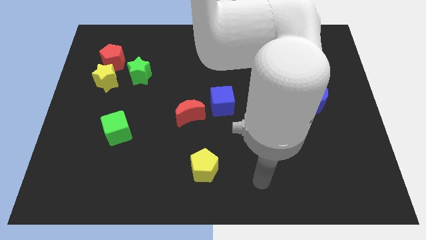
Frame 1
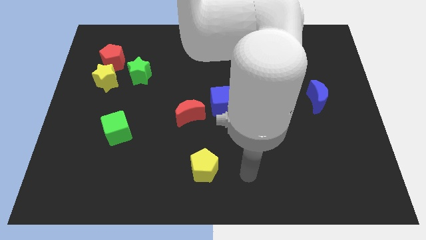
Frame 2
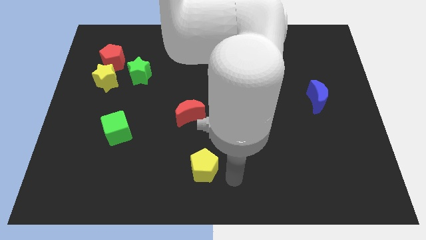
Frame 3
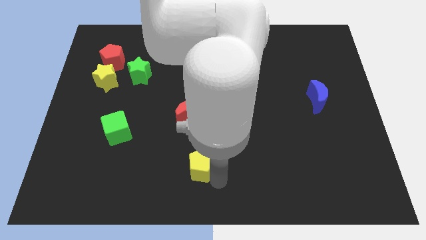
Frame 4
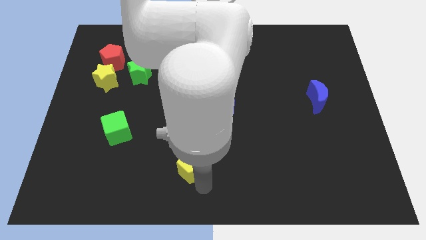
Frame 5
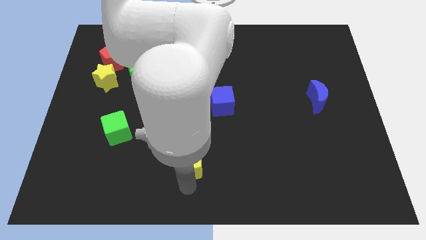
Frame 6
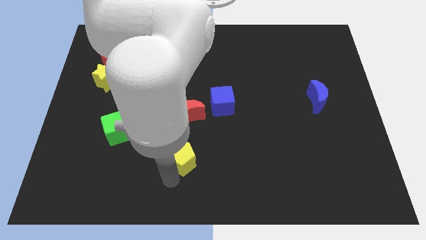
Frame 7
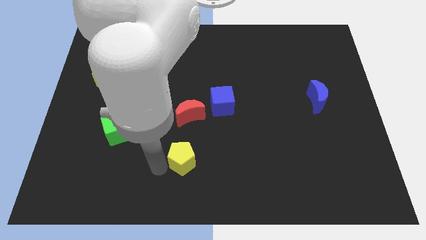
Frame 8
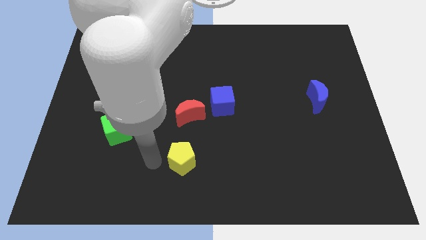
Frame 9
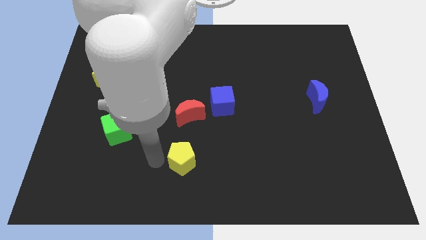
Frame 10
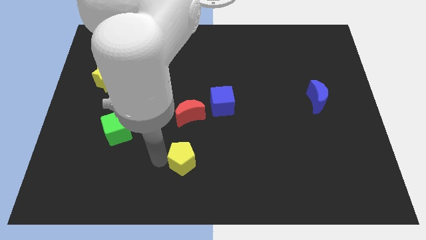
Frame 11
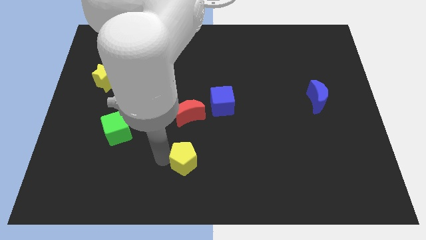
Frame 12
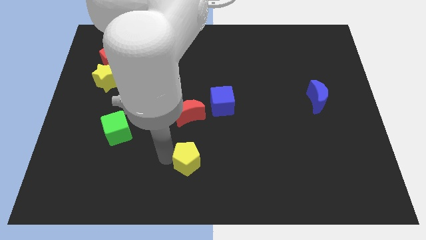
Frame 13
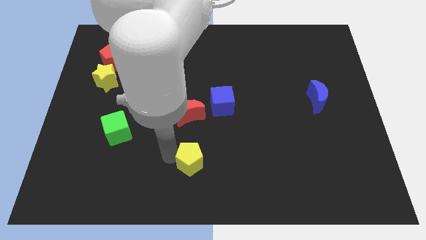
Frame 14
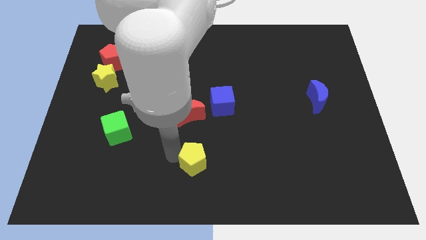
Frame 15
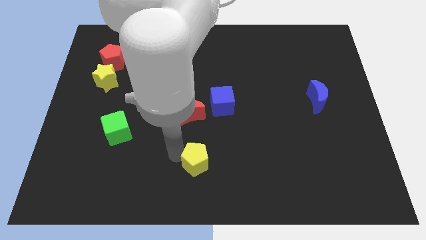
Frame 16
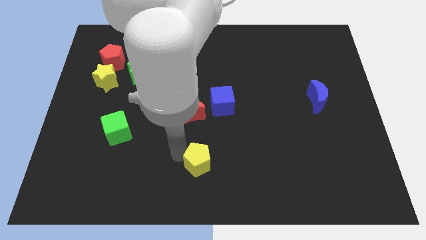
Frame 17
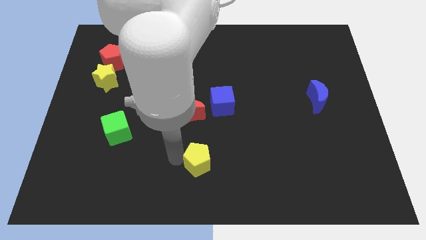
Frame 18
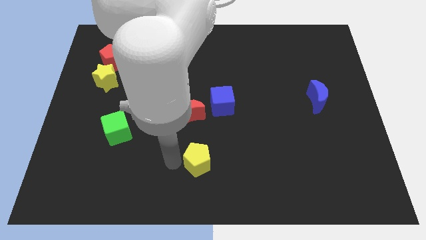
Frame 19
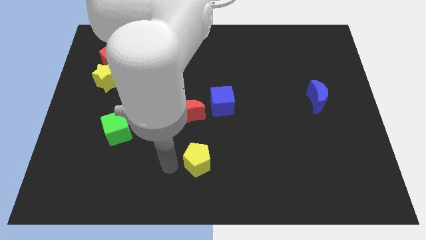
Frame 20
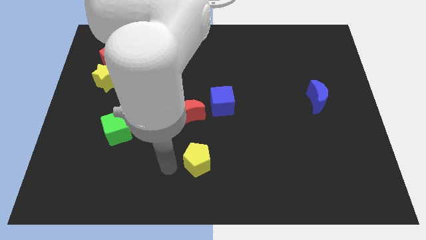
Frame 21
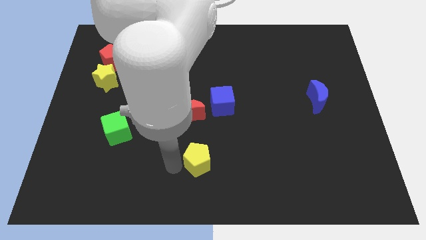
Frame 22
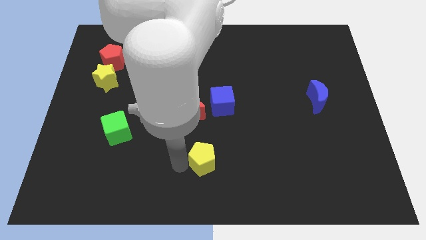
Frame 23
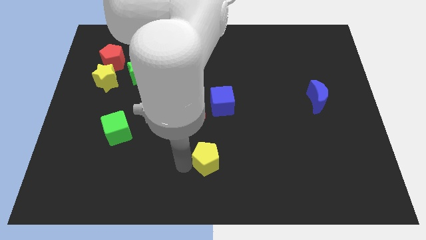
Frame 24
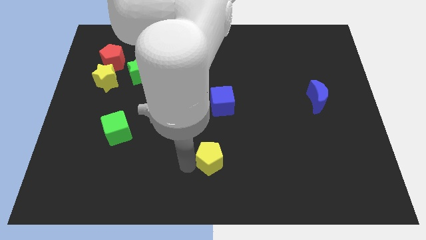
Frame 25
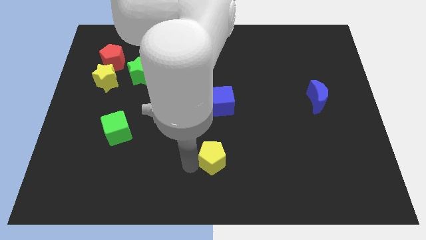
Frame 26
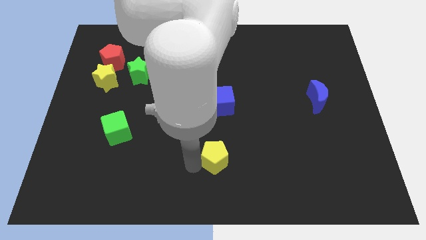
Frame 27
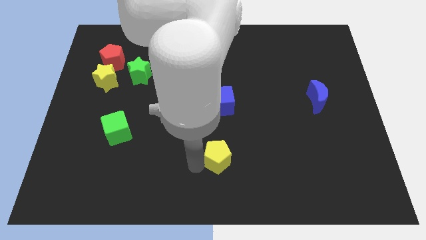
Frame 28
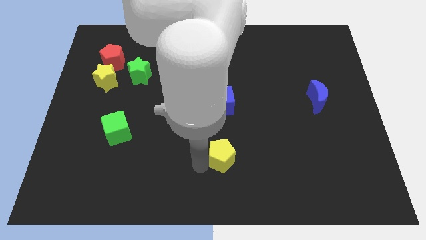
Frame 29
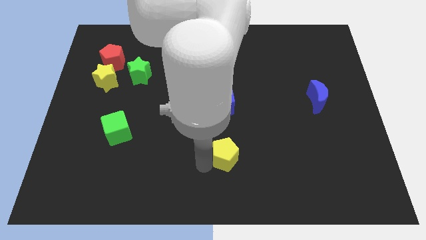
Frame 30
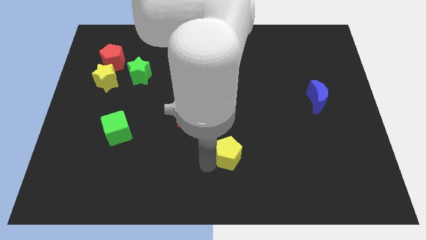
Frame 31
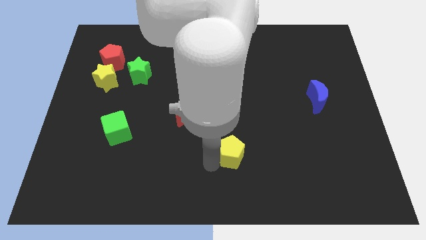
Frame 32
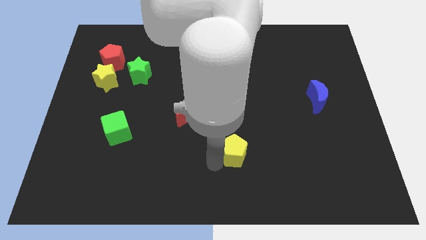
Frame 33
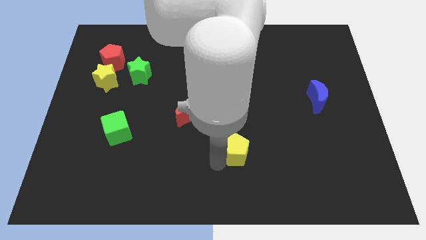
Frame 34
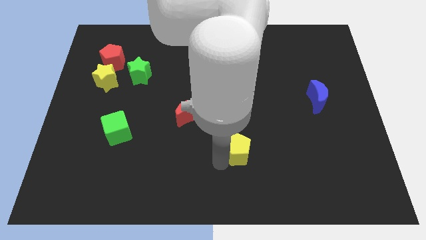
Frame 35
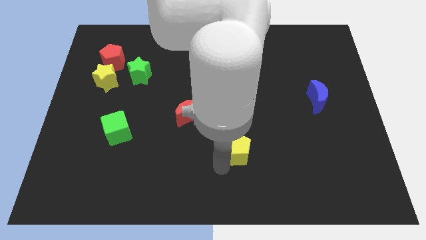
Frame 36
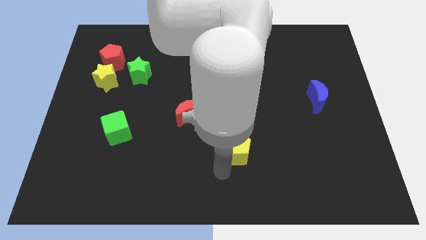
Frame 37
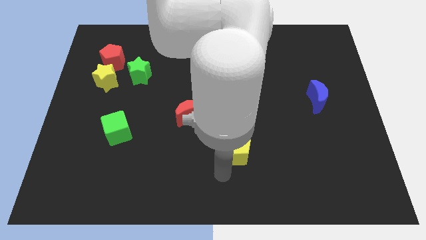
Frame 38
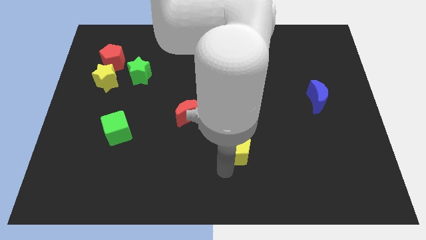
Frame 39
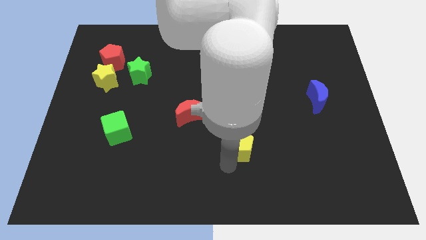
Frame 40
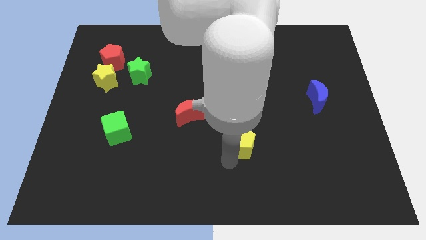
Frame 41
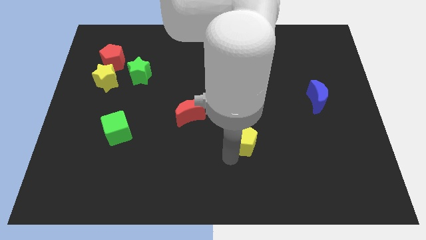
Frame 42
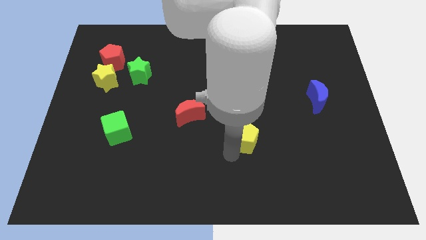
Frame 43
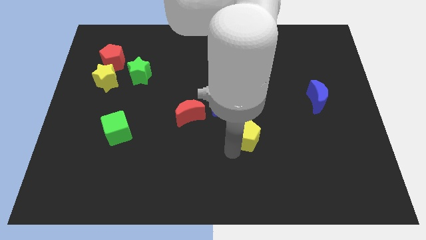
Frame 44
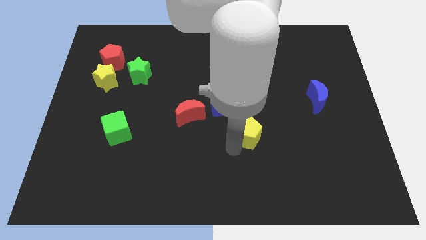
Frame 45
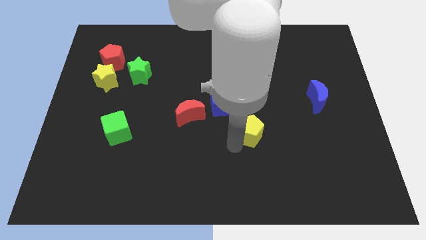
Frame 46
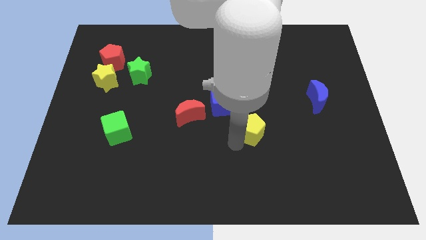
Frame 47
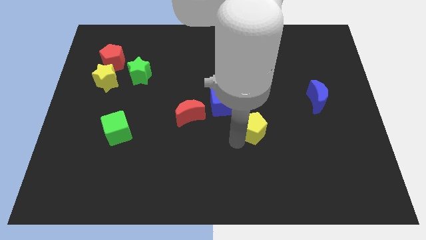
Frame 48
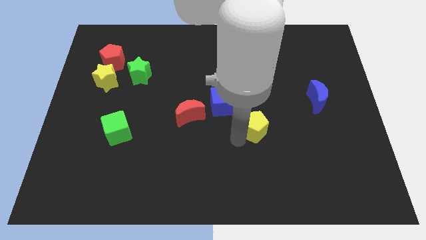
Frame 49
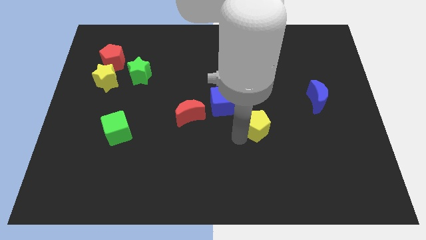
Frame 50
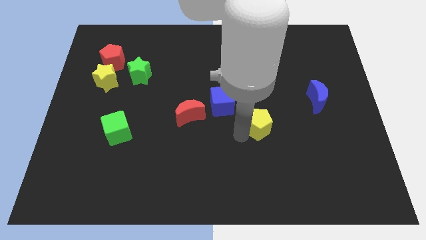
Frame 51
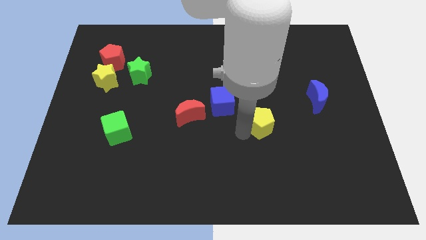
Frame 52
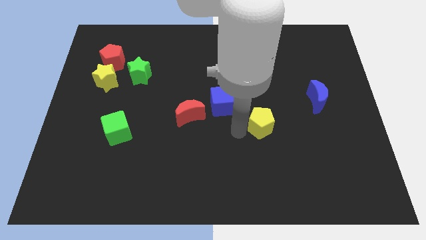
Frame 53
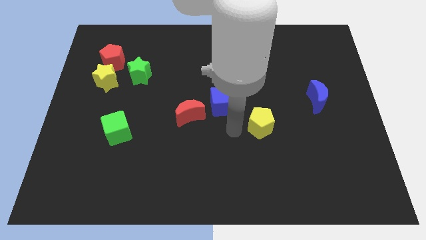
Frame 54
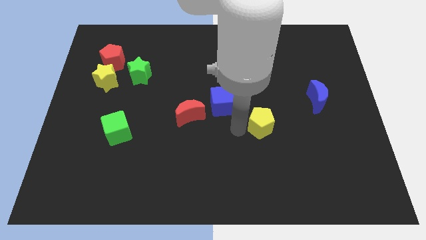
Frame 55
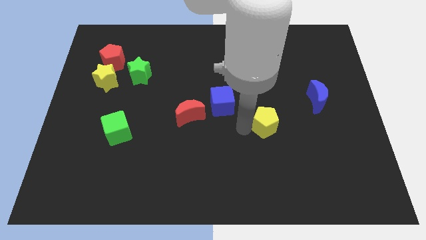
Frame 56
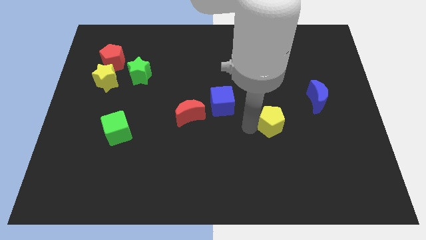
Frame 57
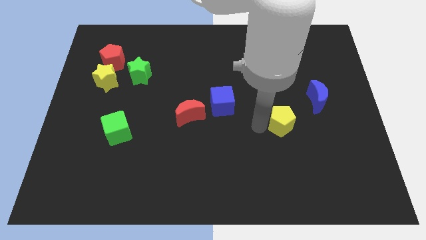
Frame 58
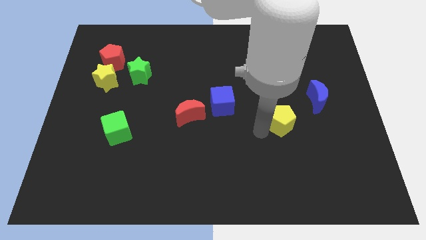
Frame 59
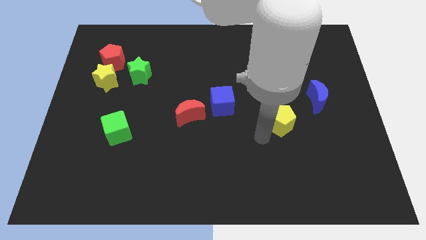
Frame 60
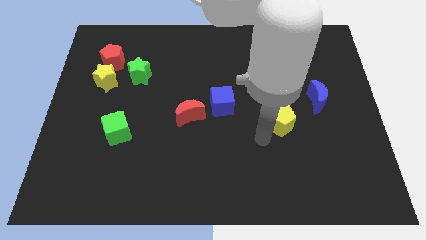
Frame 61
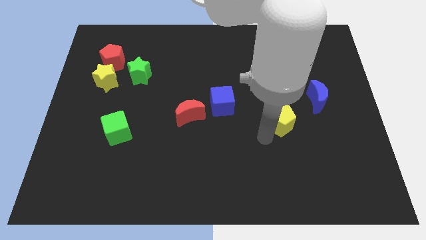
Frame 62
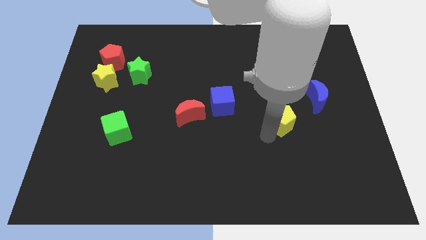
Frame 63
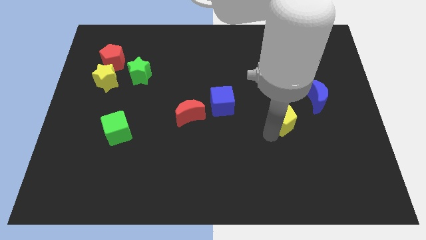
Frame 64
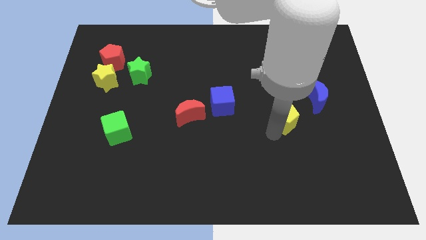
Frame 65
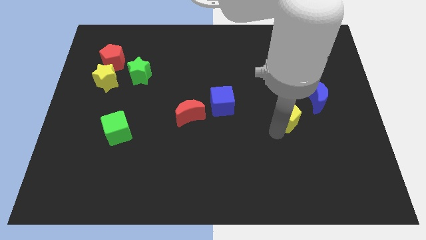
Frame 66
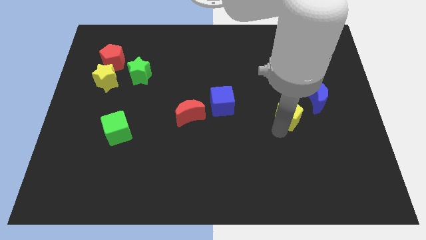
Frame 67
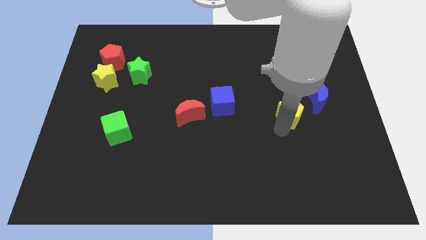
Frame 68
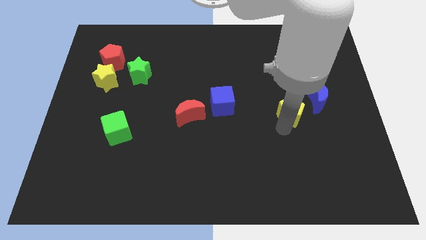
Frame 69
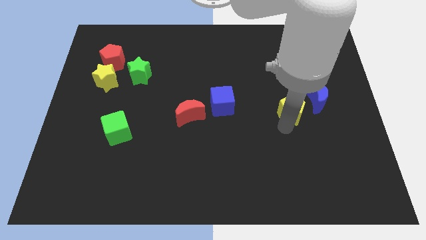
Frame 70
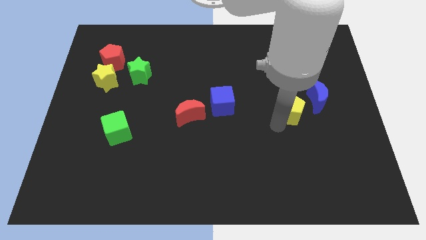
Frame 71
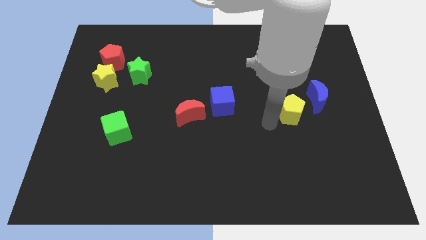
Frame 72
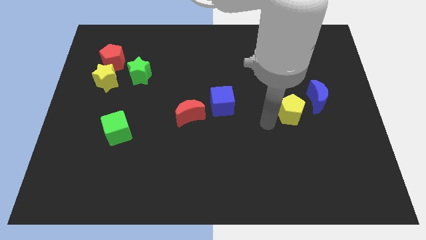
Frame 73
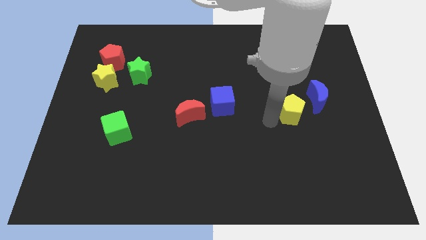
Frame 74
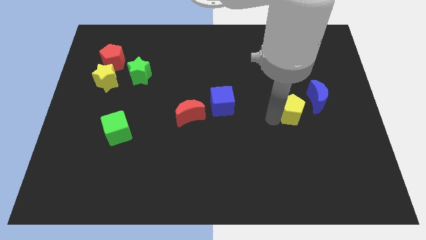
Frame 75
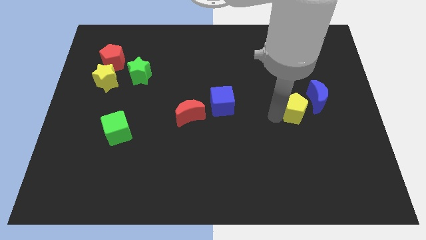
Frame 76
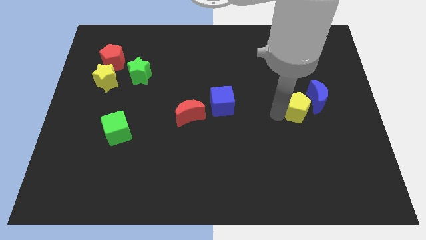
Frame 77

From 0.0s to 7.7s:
move the yellow pentagon close to the blue moon

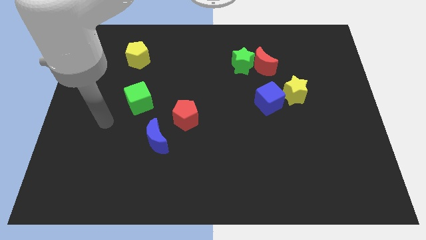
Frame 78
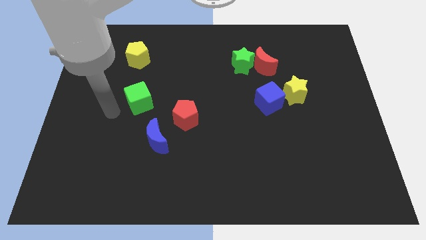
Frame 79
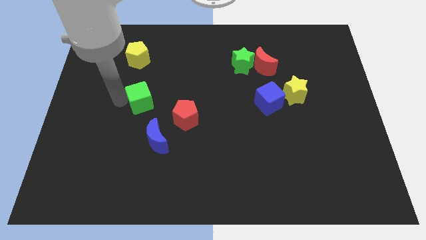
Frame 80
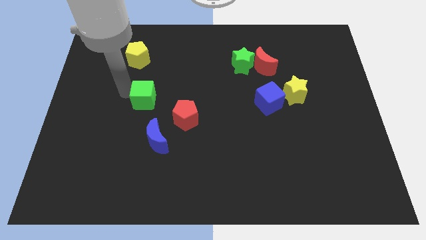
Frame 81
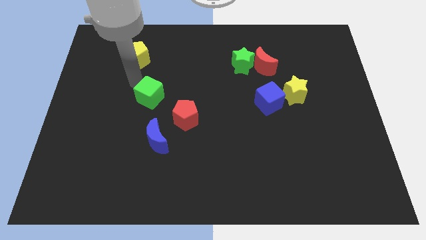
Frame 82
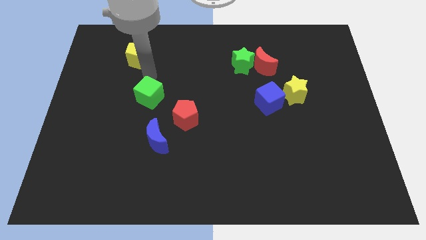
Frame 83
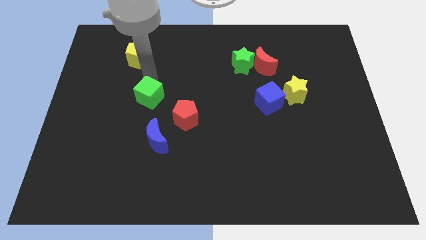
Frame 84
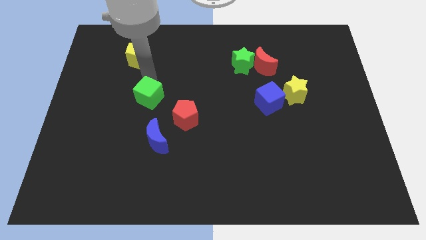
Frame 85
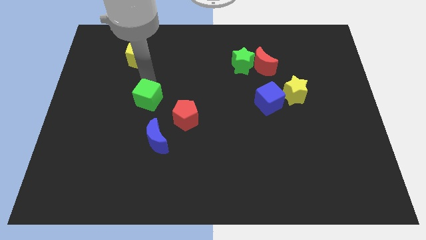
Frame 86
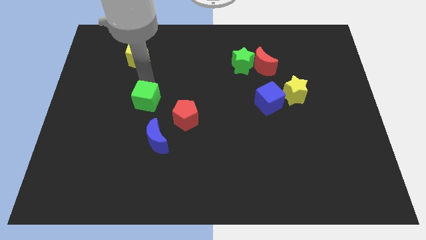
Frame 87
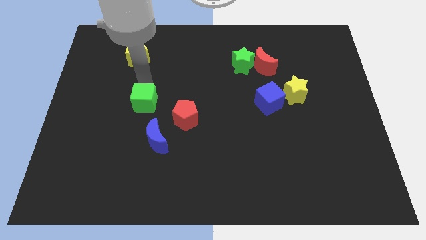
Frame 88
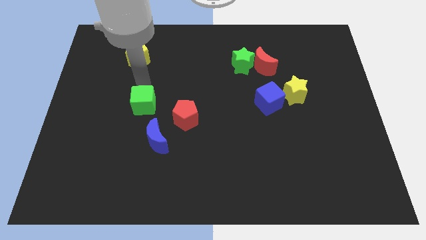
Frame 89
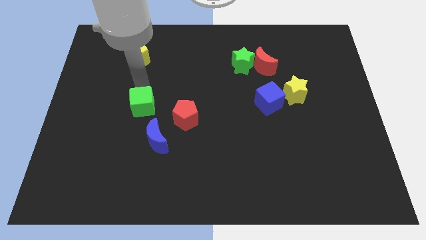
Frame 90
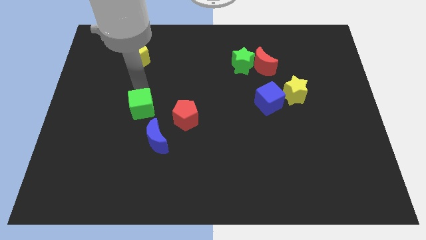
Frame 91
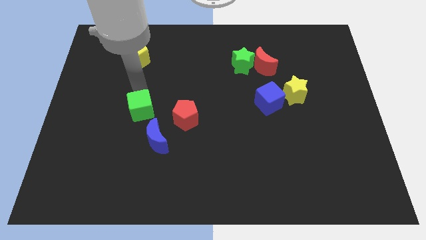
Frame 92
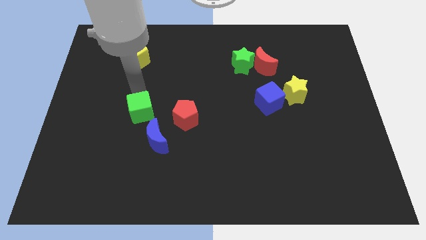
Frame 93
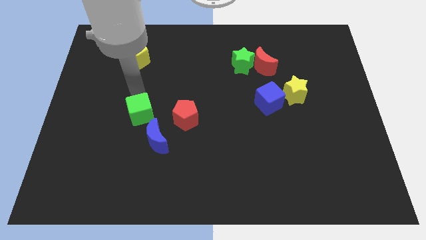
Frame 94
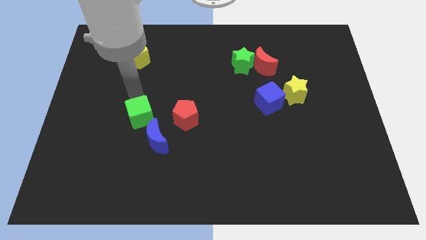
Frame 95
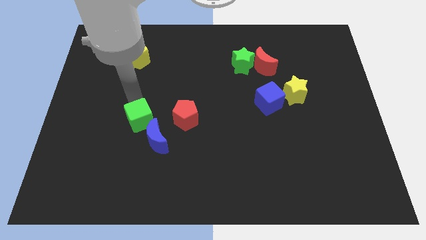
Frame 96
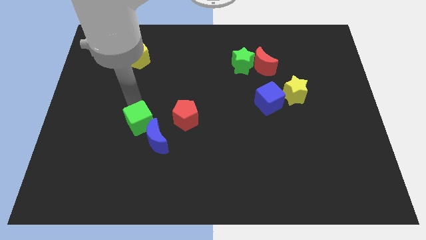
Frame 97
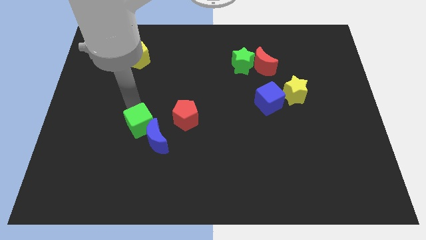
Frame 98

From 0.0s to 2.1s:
put the green cube towards the blue moon
